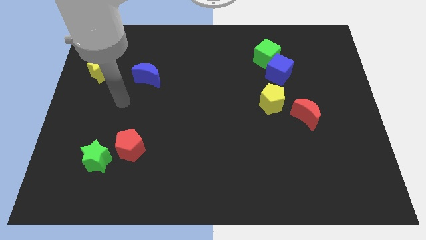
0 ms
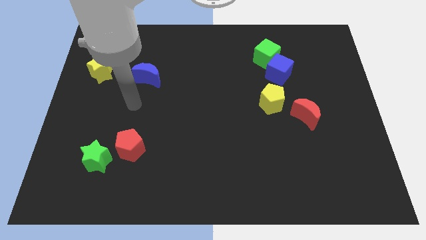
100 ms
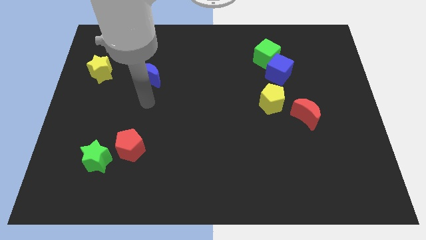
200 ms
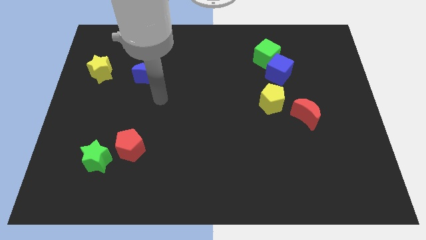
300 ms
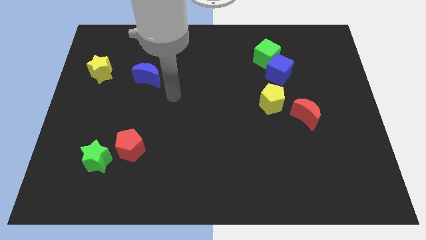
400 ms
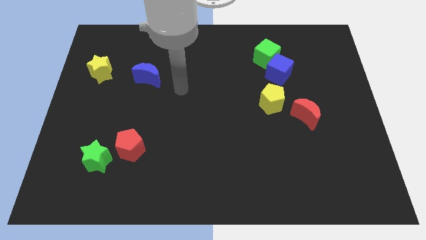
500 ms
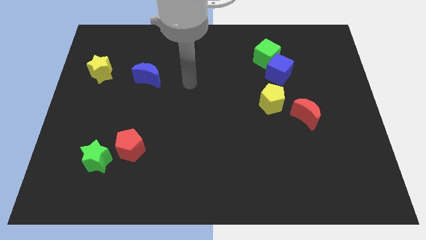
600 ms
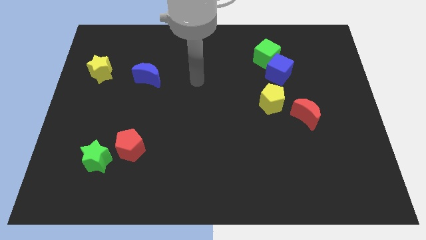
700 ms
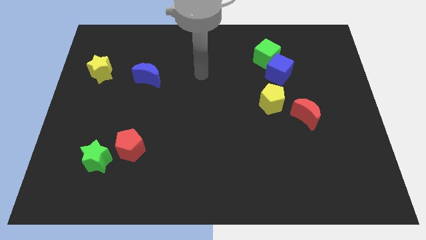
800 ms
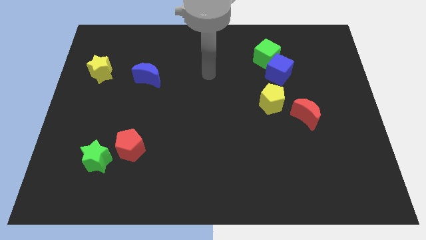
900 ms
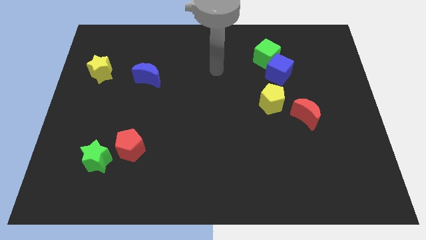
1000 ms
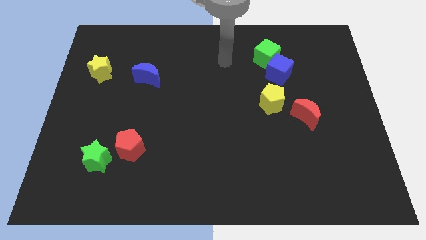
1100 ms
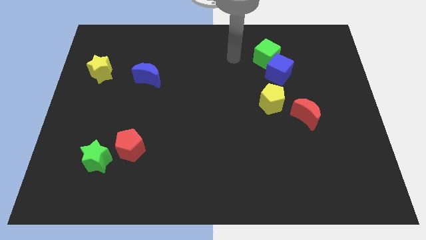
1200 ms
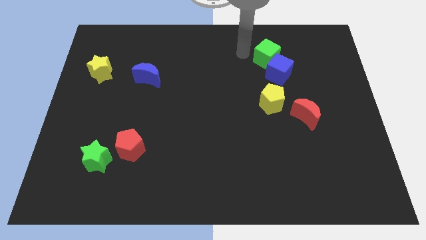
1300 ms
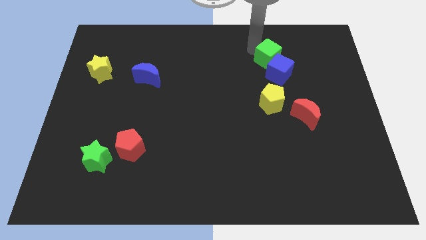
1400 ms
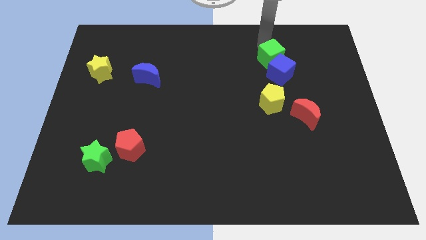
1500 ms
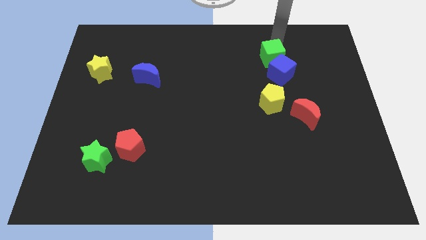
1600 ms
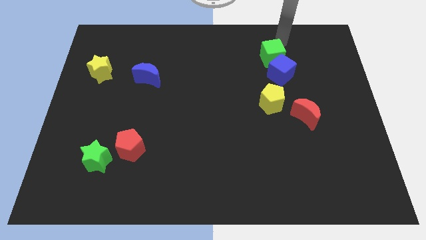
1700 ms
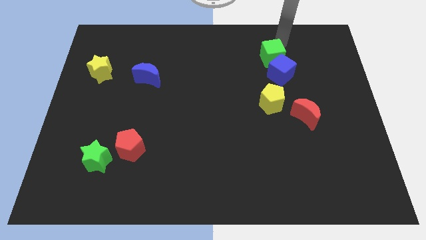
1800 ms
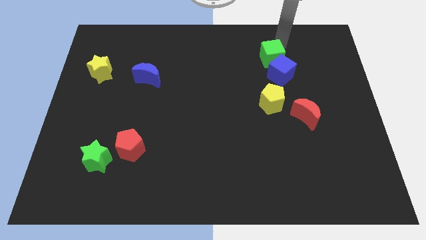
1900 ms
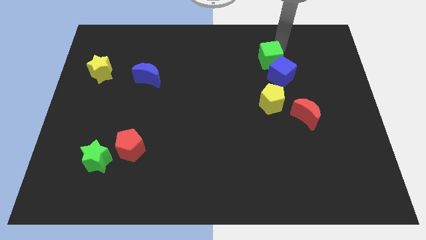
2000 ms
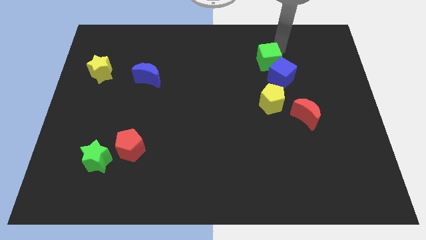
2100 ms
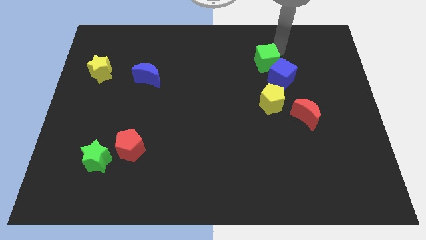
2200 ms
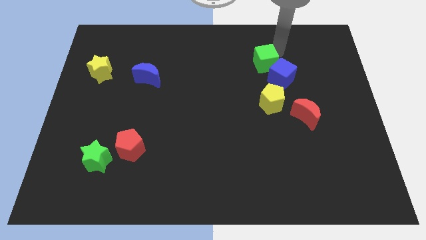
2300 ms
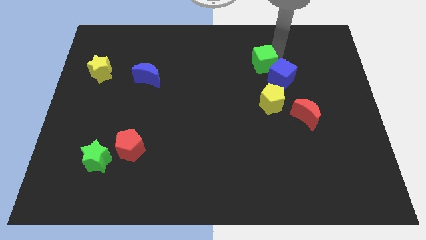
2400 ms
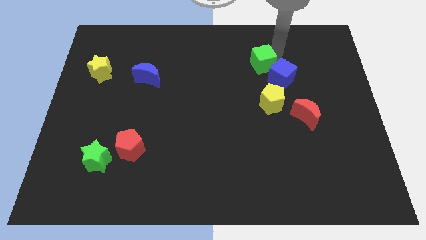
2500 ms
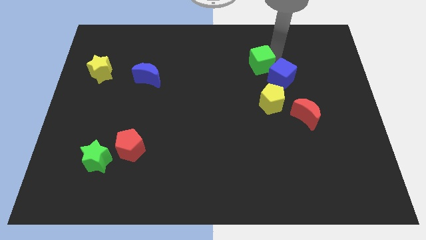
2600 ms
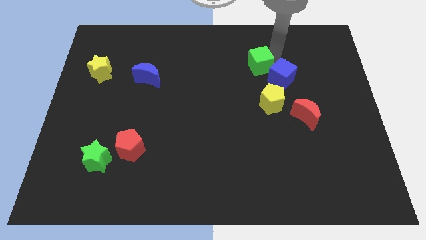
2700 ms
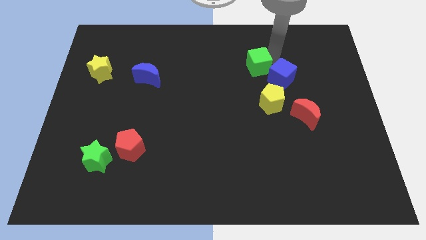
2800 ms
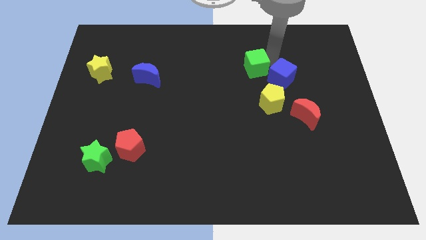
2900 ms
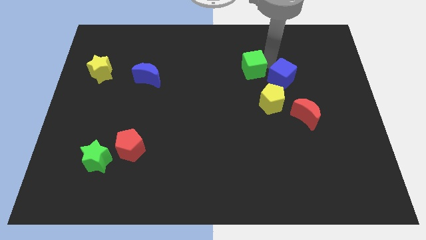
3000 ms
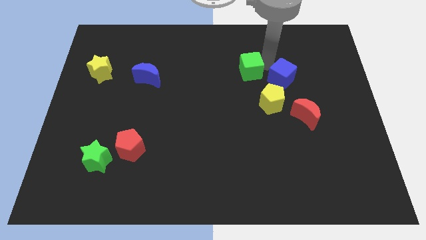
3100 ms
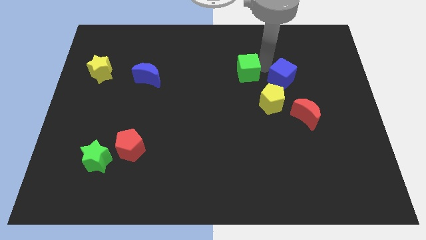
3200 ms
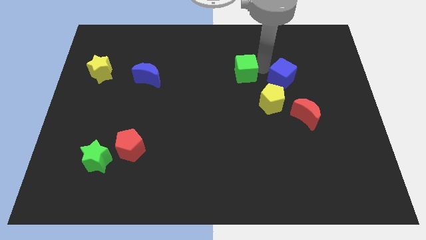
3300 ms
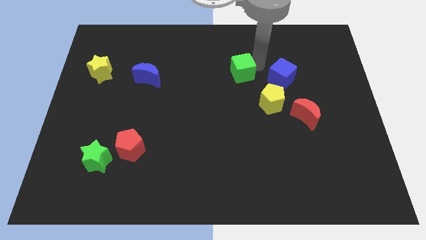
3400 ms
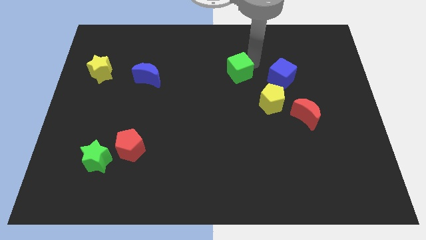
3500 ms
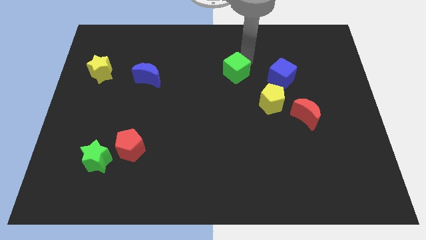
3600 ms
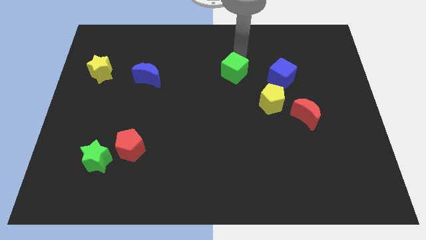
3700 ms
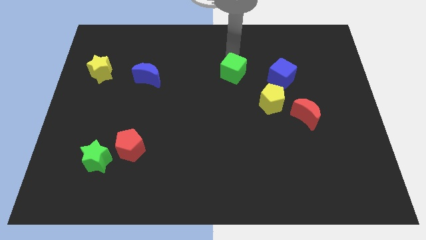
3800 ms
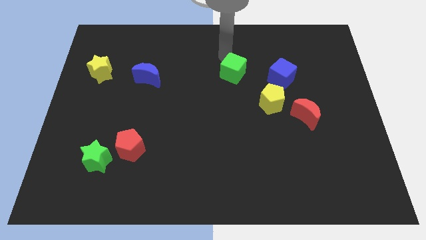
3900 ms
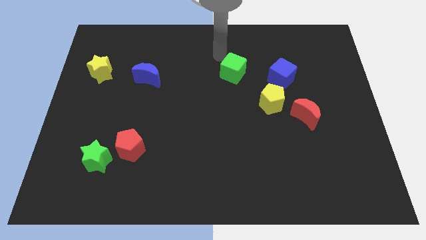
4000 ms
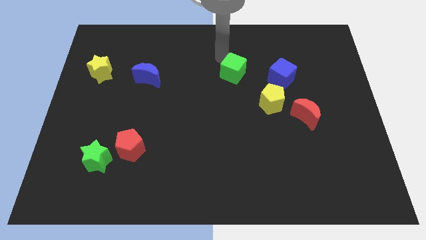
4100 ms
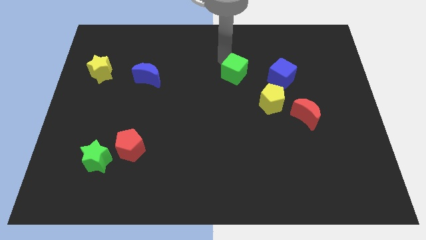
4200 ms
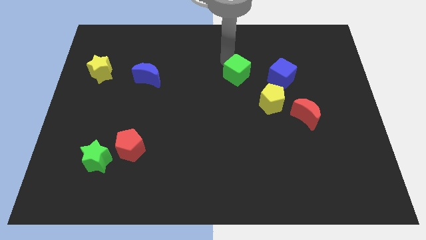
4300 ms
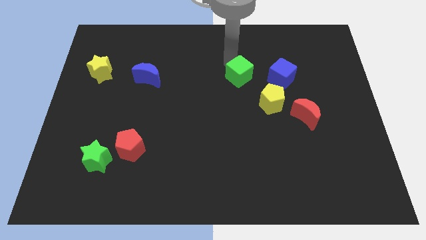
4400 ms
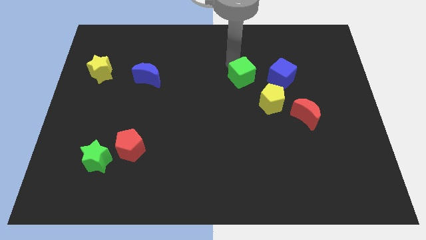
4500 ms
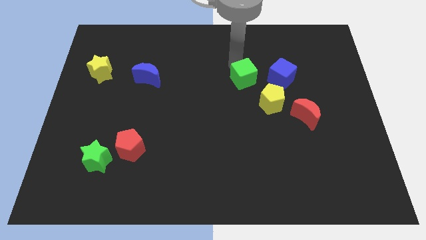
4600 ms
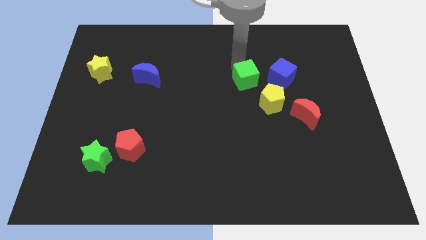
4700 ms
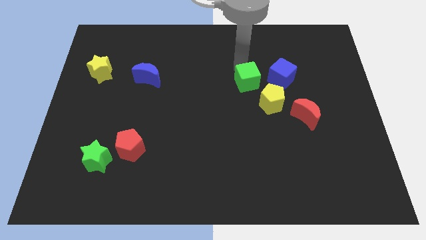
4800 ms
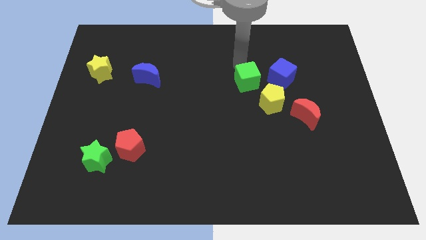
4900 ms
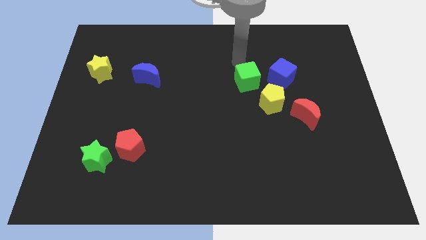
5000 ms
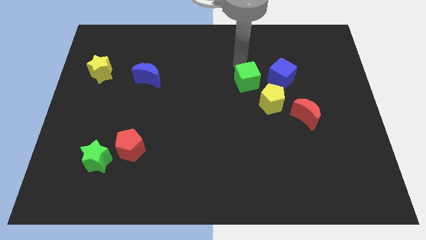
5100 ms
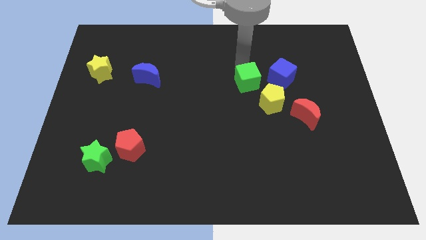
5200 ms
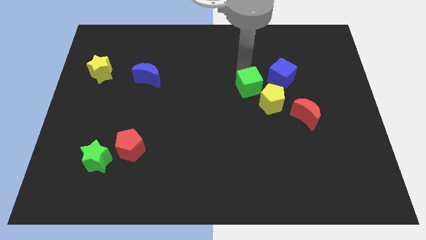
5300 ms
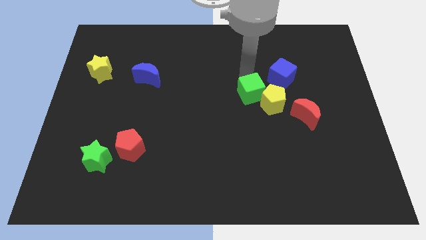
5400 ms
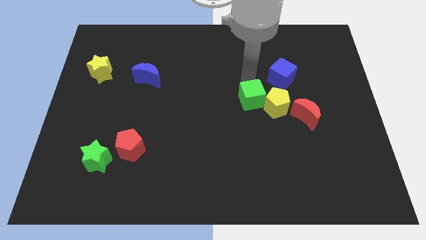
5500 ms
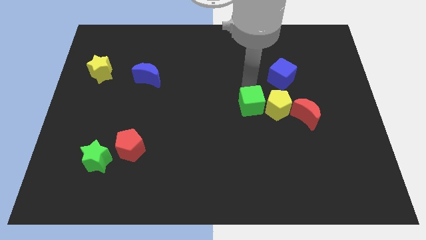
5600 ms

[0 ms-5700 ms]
put the green cube just left of the red moon

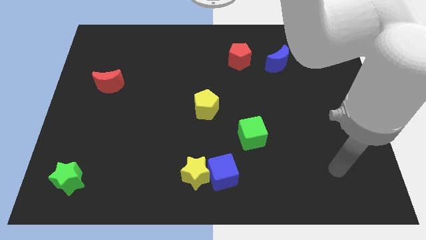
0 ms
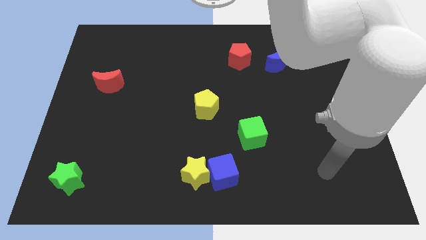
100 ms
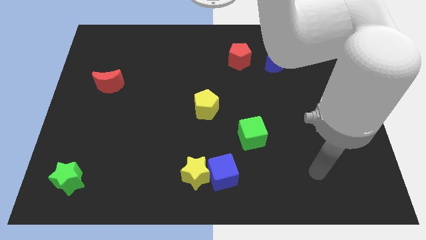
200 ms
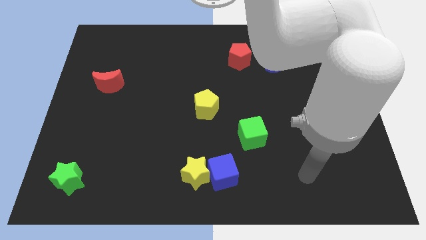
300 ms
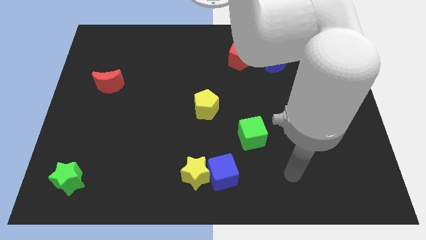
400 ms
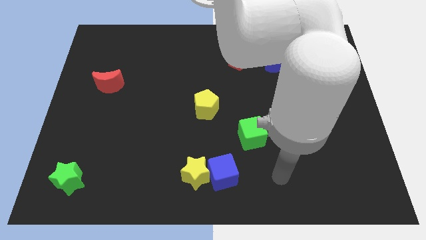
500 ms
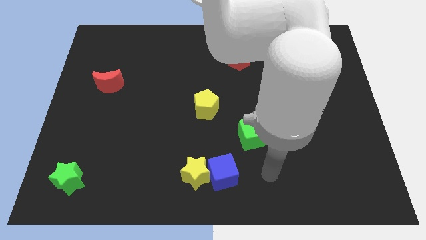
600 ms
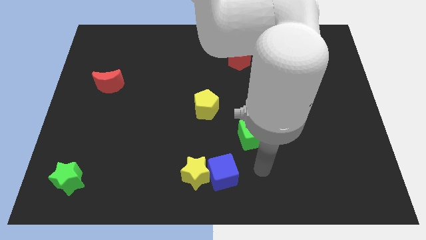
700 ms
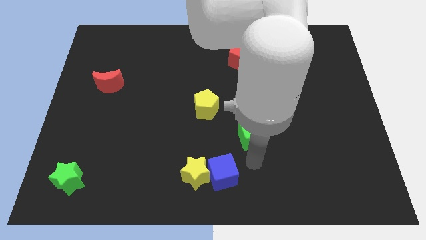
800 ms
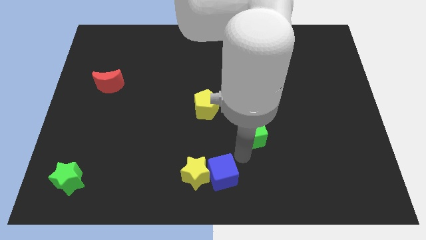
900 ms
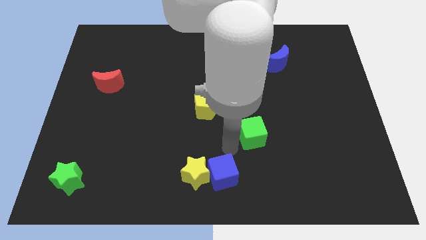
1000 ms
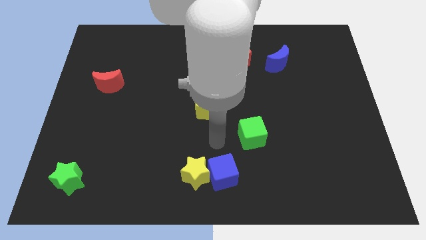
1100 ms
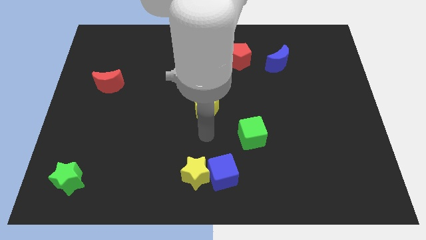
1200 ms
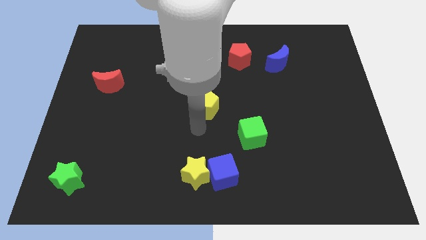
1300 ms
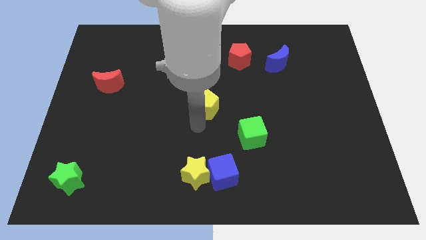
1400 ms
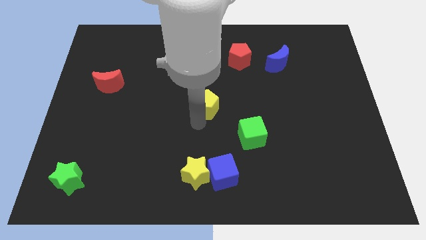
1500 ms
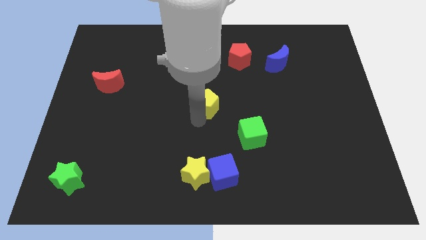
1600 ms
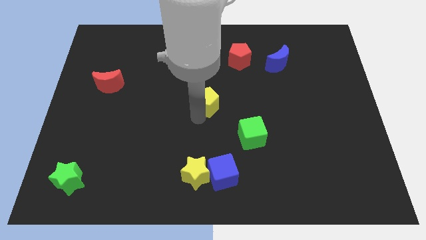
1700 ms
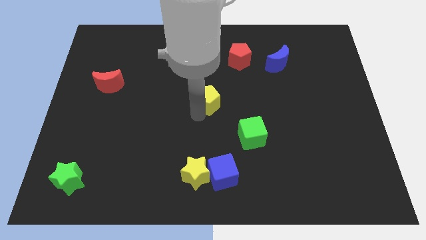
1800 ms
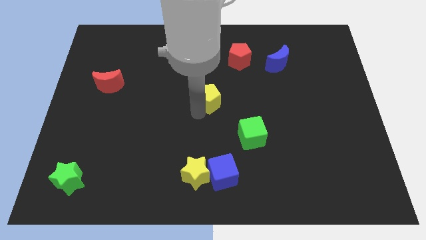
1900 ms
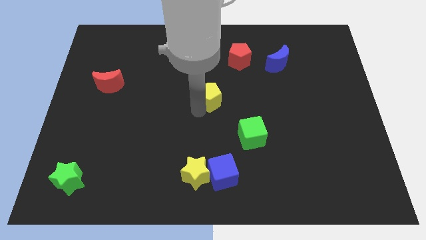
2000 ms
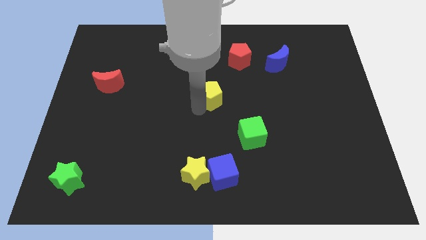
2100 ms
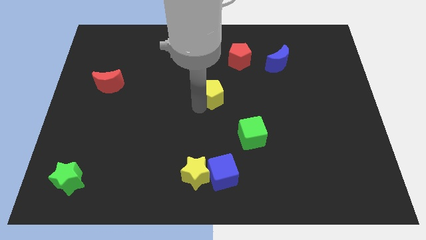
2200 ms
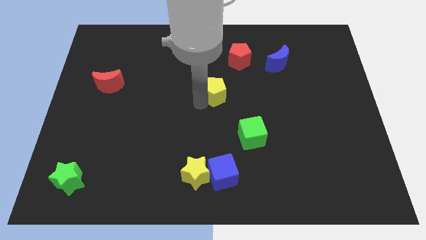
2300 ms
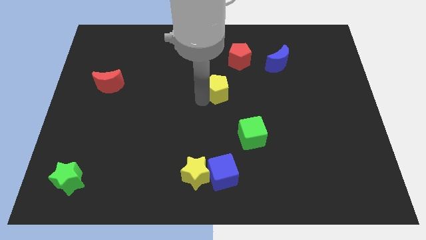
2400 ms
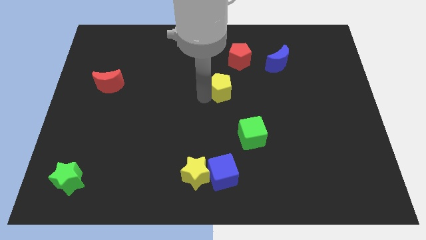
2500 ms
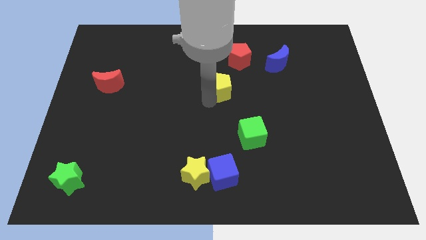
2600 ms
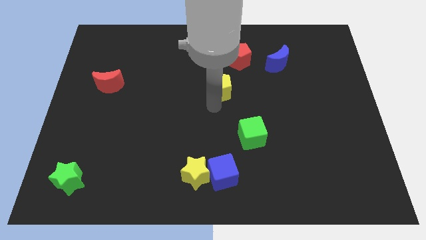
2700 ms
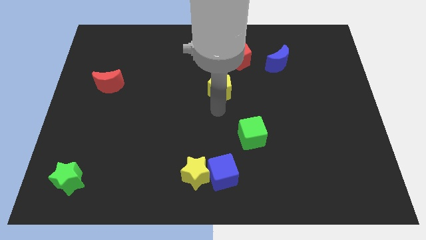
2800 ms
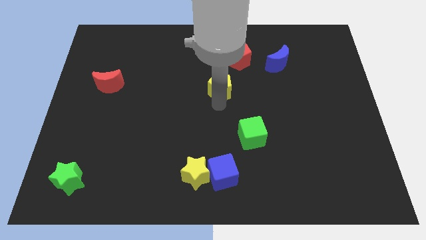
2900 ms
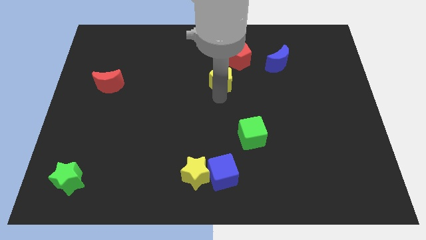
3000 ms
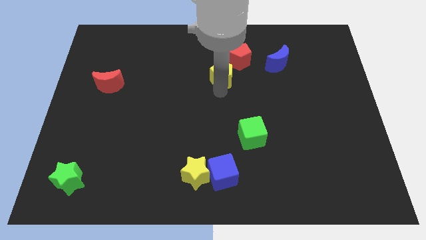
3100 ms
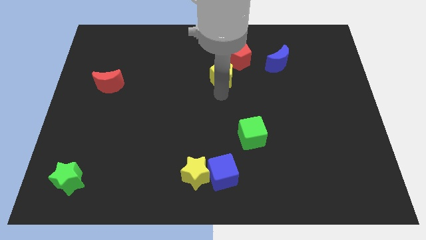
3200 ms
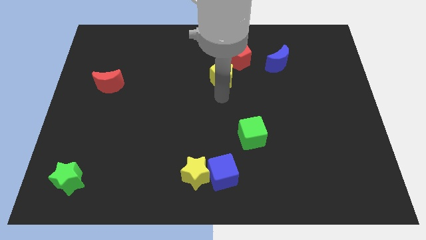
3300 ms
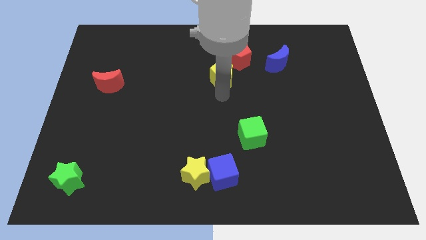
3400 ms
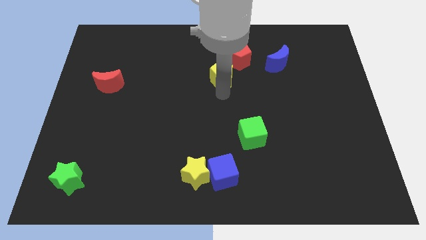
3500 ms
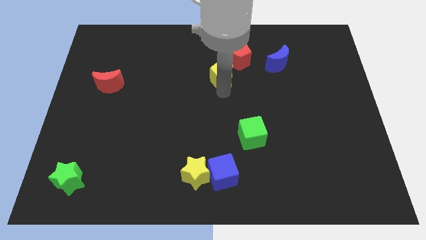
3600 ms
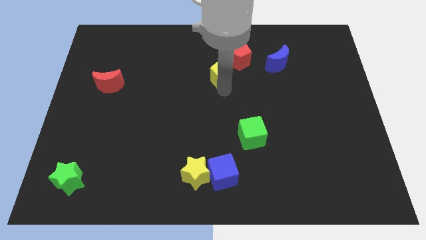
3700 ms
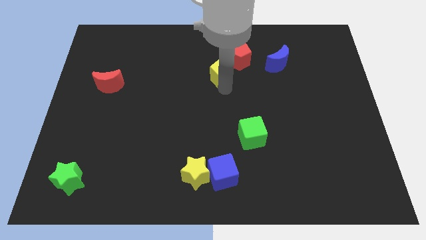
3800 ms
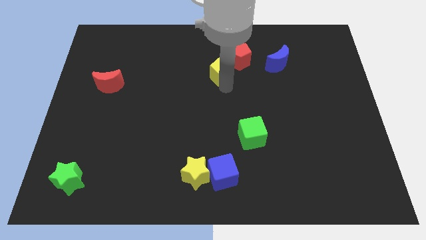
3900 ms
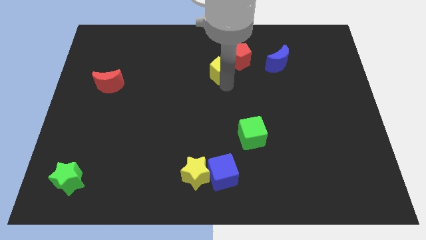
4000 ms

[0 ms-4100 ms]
slide the yellow pentagon just left of the blue moon
